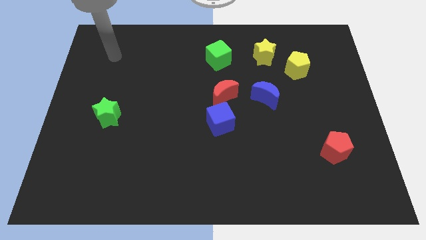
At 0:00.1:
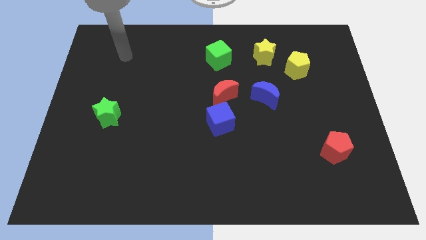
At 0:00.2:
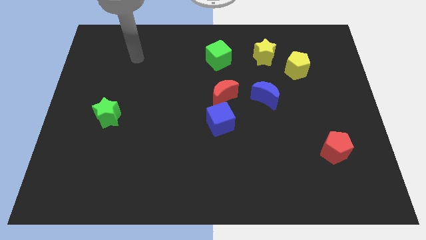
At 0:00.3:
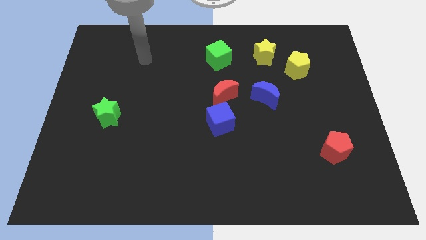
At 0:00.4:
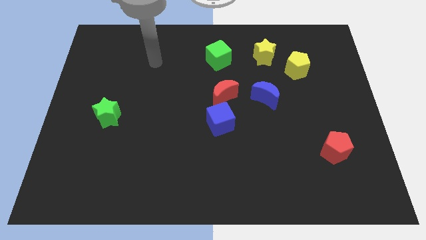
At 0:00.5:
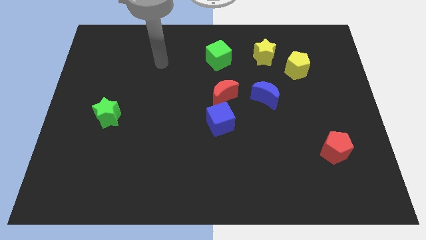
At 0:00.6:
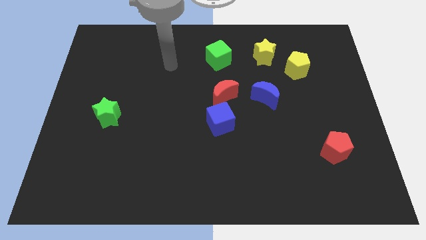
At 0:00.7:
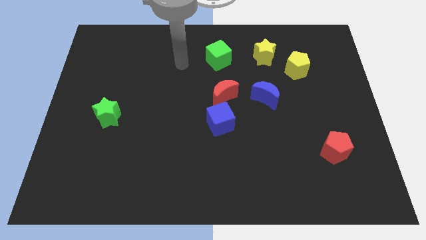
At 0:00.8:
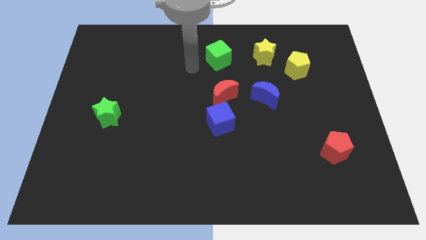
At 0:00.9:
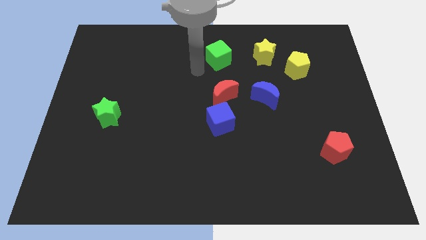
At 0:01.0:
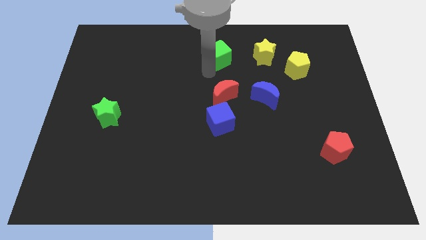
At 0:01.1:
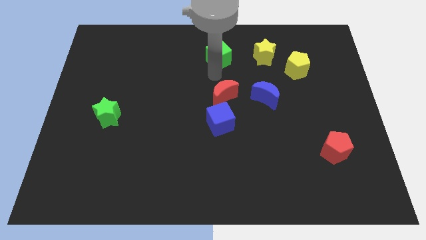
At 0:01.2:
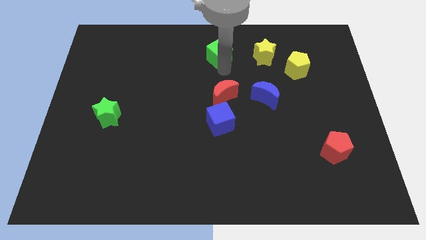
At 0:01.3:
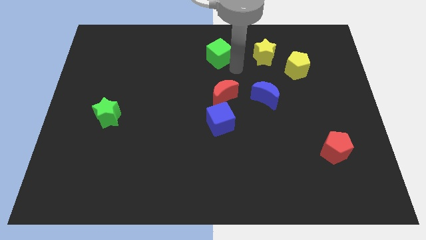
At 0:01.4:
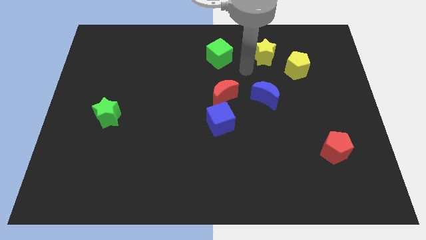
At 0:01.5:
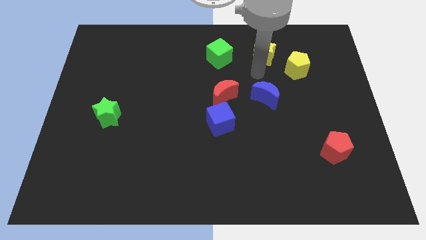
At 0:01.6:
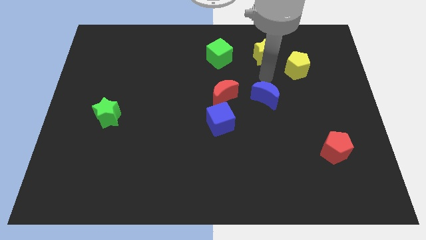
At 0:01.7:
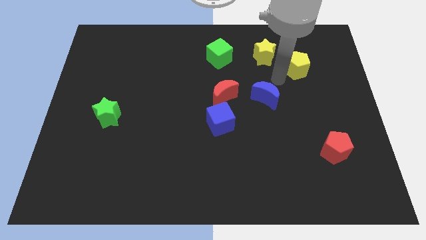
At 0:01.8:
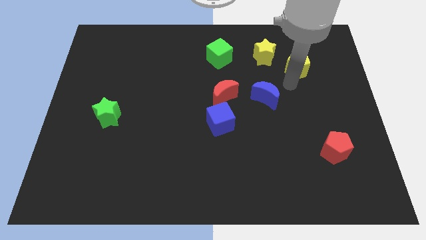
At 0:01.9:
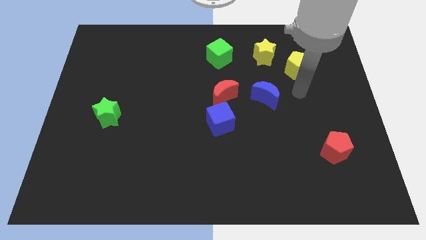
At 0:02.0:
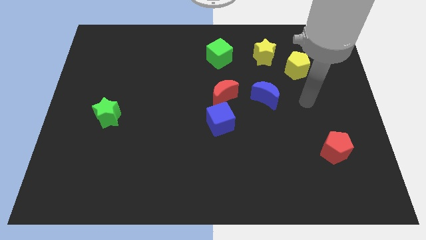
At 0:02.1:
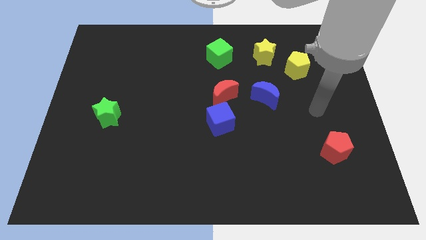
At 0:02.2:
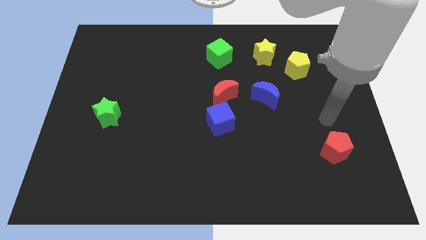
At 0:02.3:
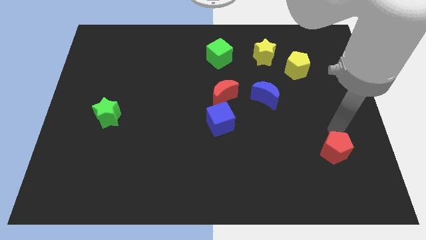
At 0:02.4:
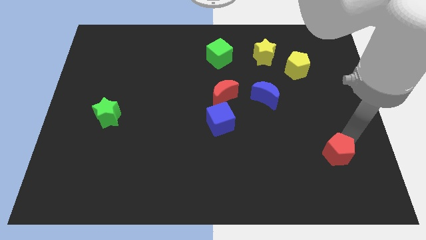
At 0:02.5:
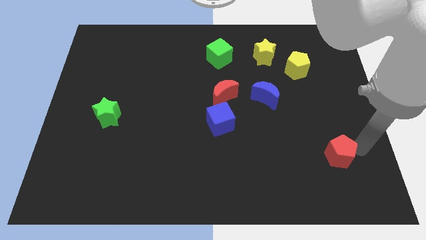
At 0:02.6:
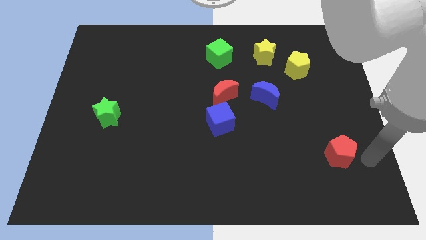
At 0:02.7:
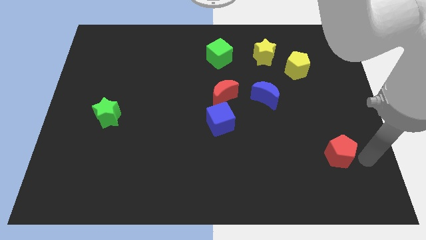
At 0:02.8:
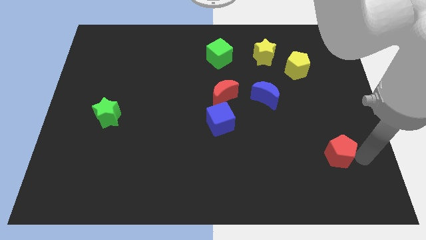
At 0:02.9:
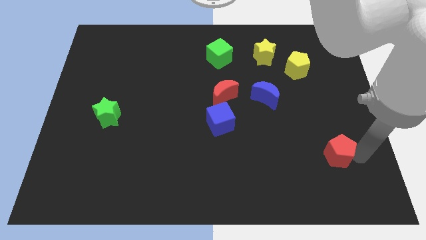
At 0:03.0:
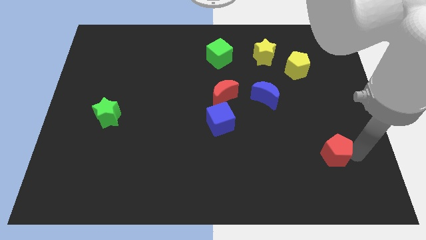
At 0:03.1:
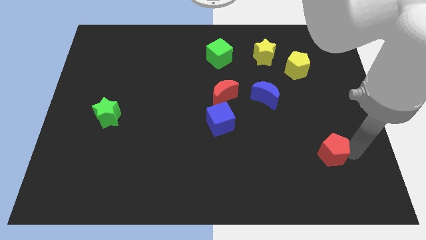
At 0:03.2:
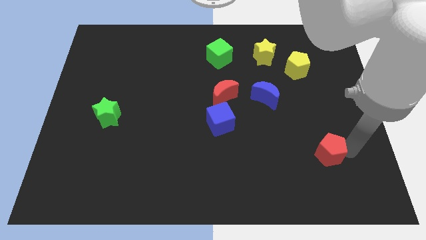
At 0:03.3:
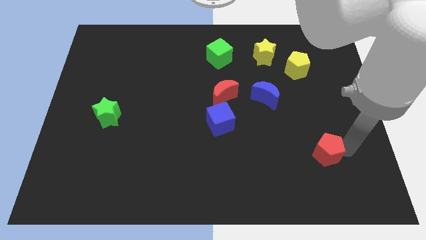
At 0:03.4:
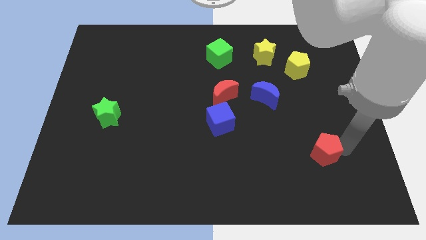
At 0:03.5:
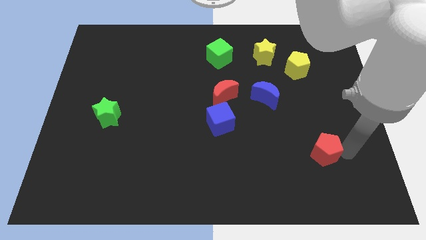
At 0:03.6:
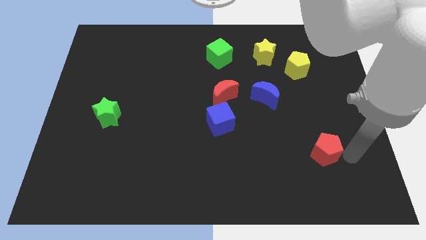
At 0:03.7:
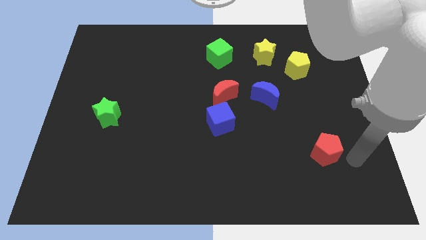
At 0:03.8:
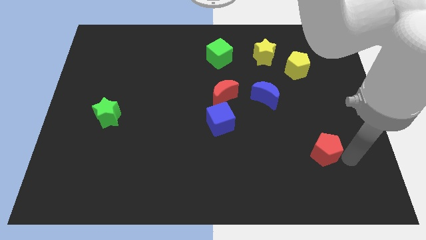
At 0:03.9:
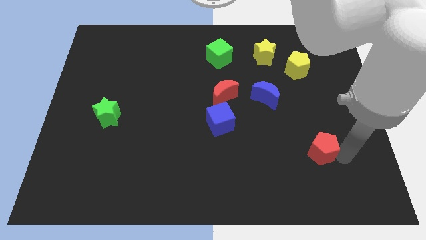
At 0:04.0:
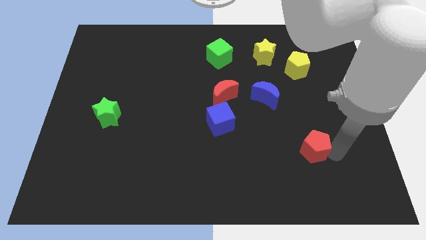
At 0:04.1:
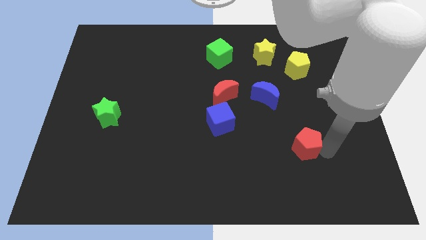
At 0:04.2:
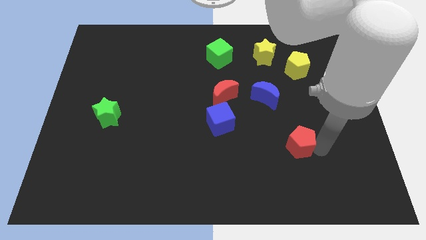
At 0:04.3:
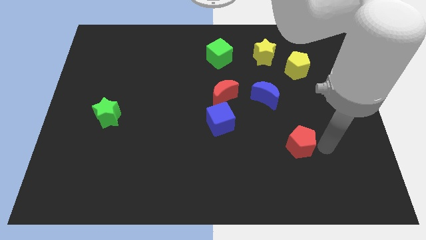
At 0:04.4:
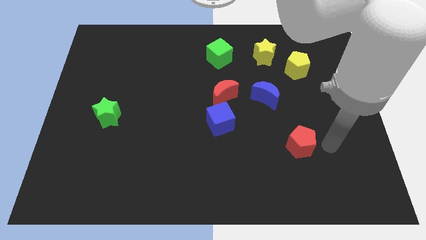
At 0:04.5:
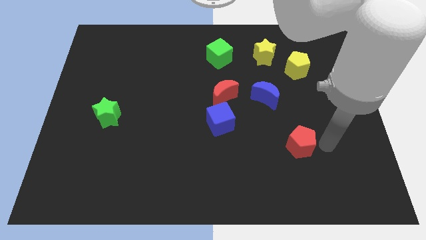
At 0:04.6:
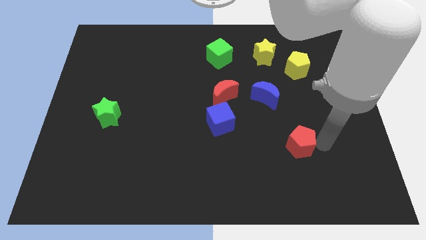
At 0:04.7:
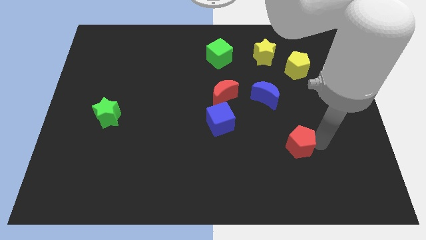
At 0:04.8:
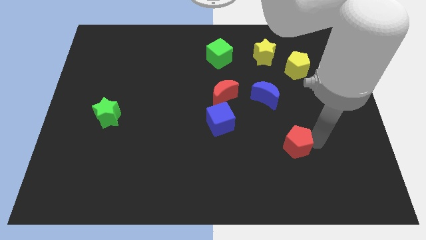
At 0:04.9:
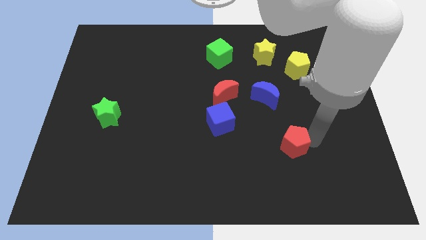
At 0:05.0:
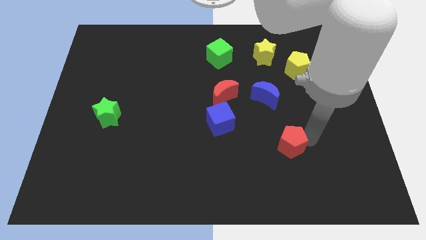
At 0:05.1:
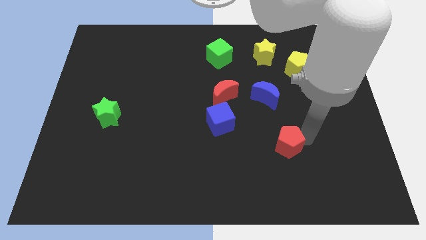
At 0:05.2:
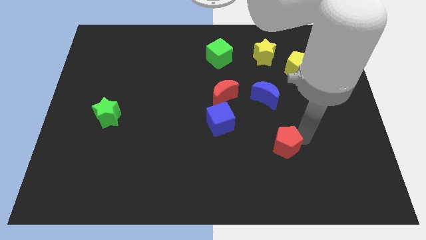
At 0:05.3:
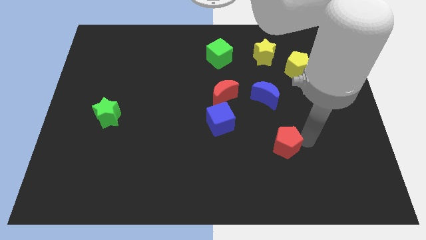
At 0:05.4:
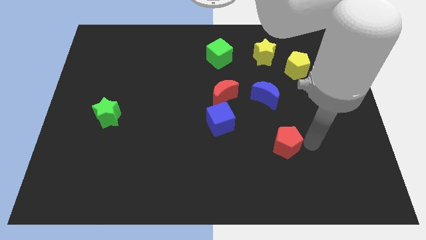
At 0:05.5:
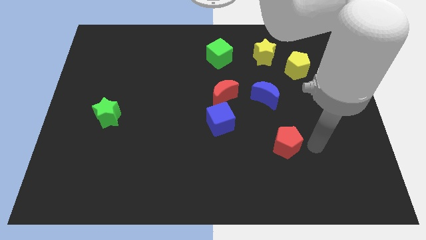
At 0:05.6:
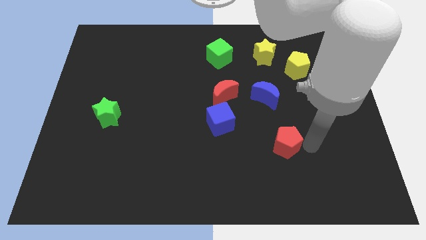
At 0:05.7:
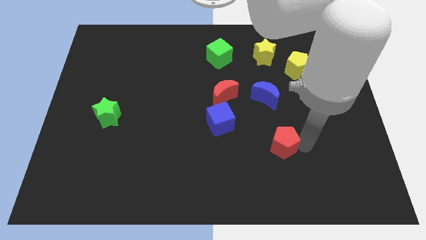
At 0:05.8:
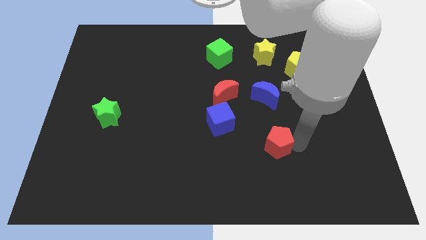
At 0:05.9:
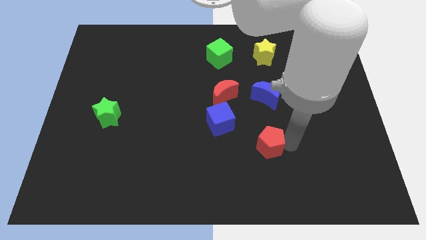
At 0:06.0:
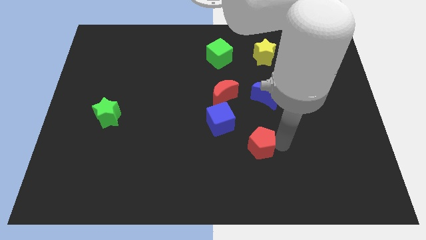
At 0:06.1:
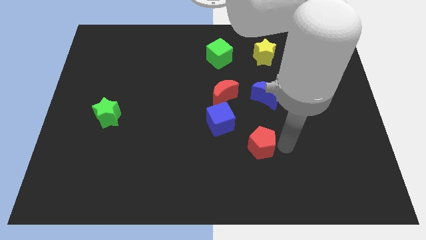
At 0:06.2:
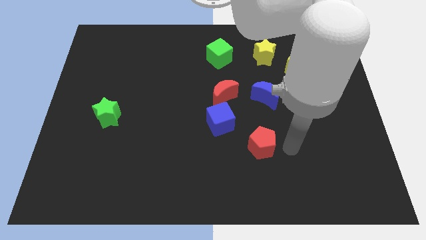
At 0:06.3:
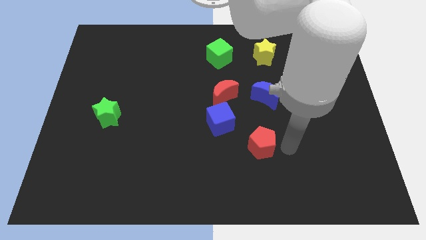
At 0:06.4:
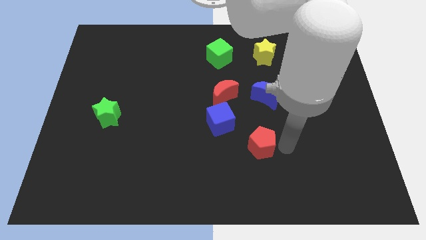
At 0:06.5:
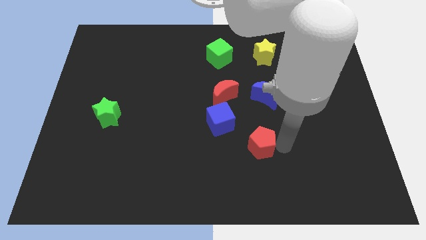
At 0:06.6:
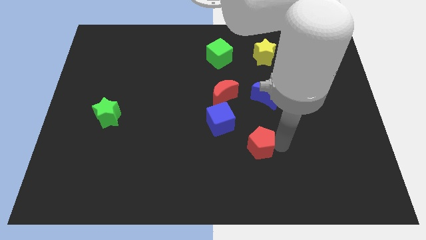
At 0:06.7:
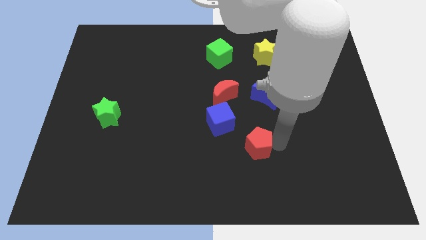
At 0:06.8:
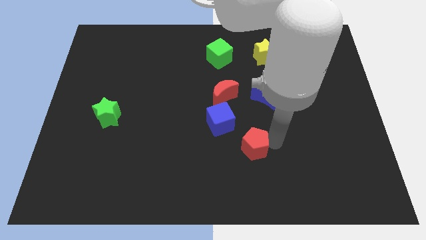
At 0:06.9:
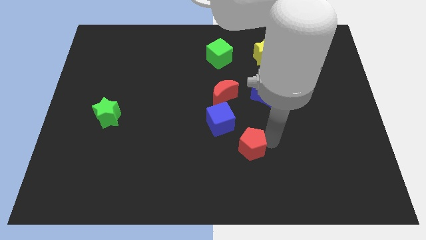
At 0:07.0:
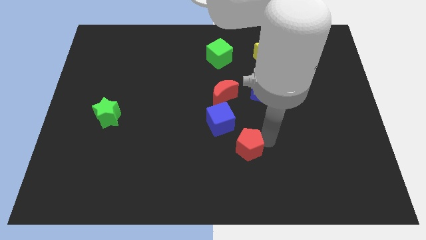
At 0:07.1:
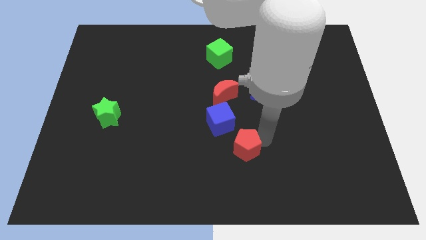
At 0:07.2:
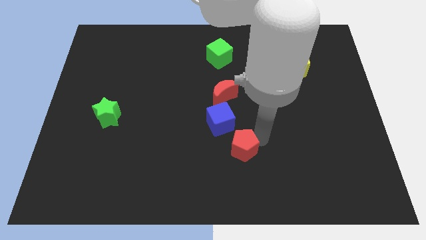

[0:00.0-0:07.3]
move the red pentagon to the left

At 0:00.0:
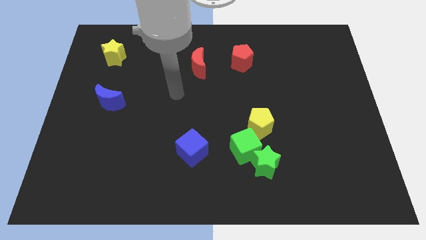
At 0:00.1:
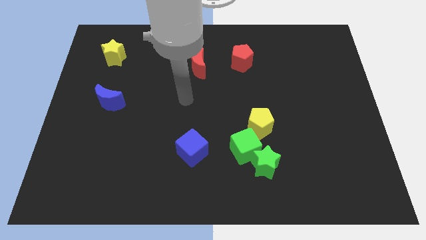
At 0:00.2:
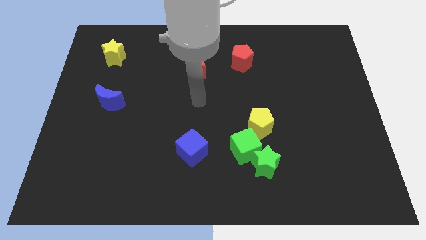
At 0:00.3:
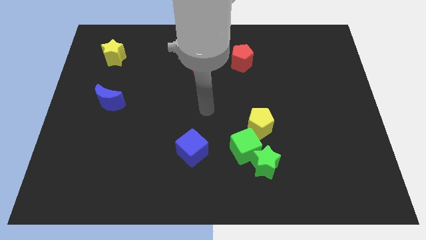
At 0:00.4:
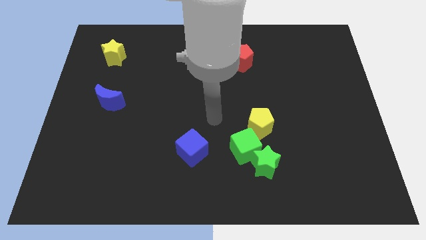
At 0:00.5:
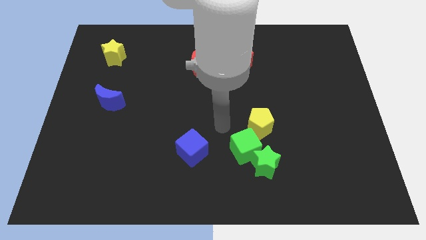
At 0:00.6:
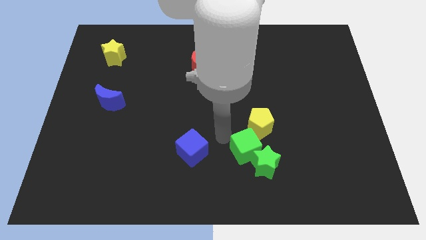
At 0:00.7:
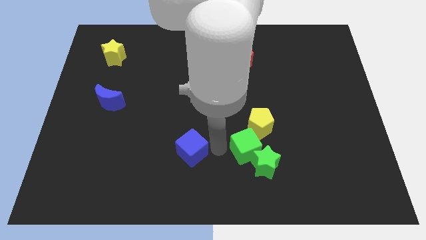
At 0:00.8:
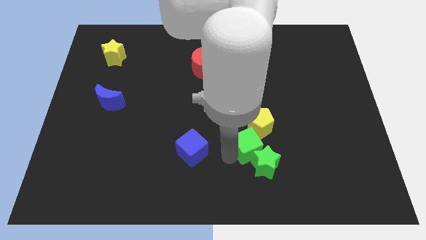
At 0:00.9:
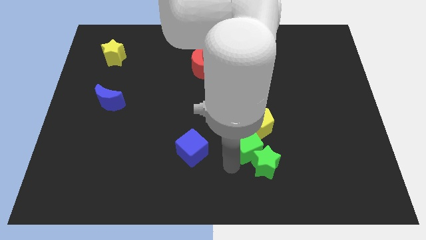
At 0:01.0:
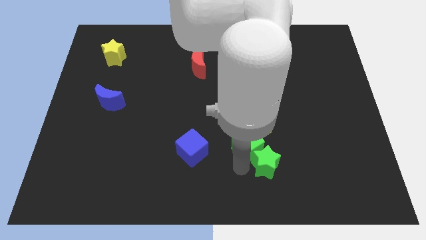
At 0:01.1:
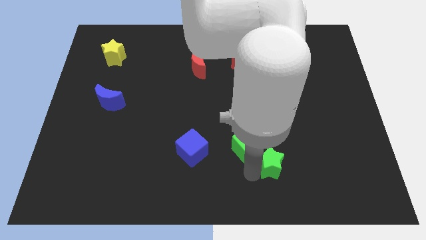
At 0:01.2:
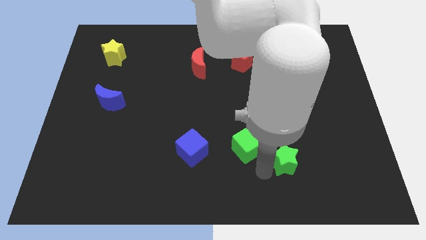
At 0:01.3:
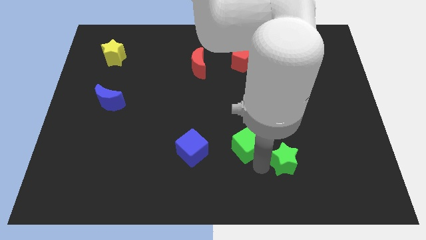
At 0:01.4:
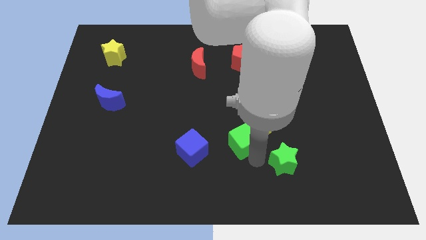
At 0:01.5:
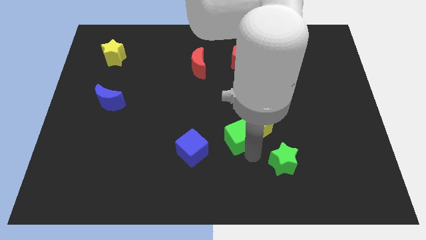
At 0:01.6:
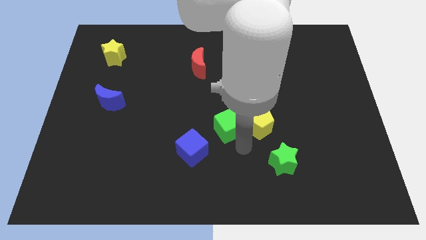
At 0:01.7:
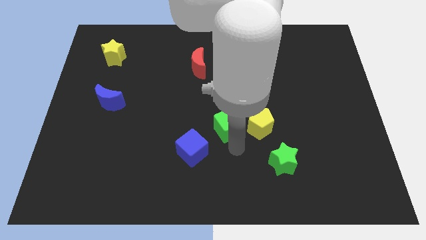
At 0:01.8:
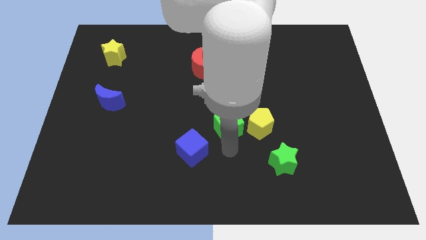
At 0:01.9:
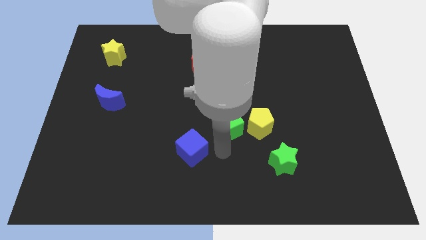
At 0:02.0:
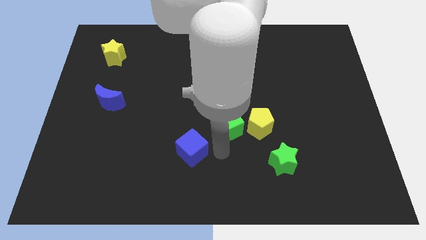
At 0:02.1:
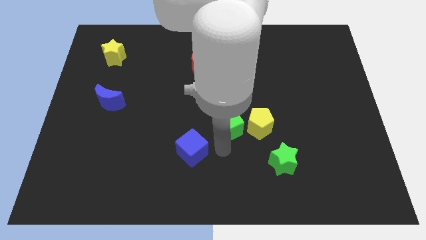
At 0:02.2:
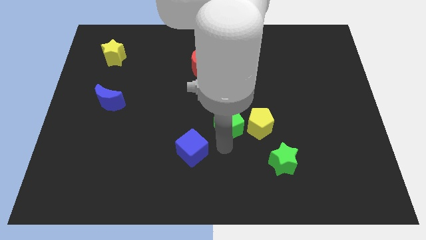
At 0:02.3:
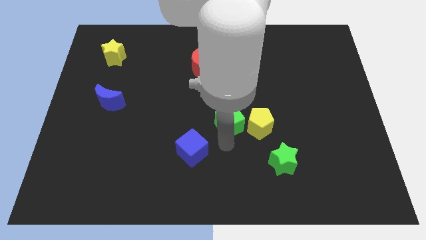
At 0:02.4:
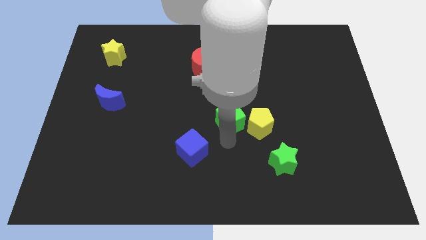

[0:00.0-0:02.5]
push the green cube slightly up
